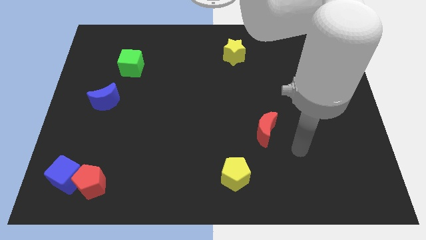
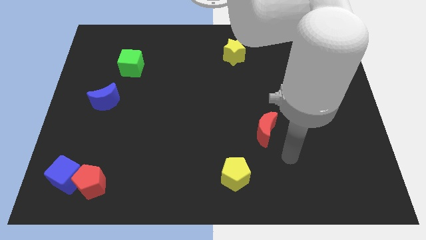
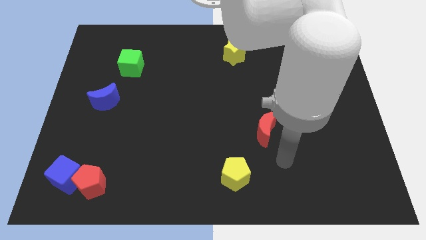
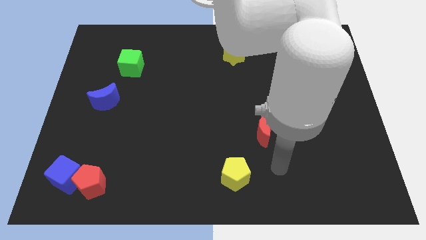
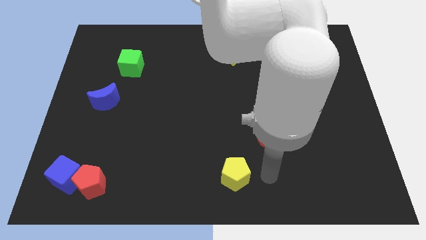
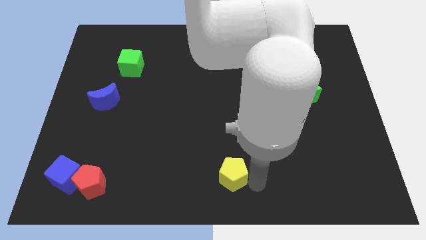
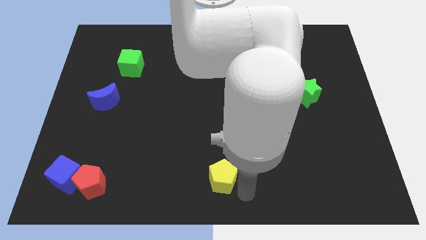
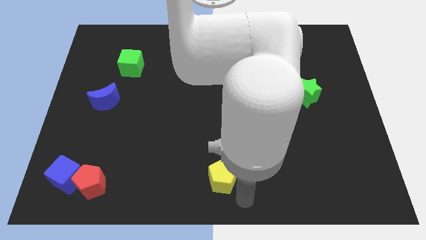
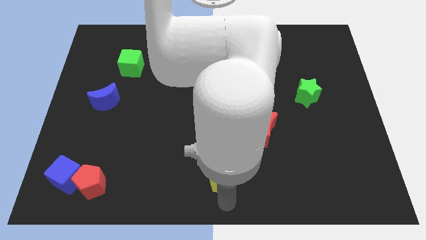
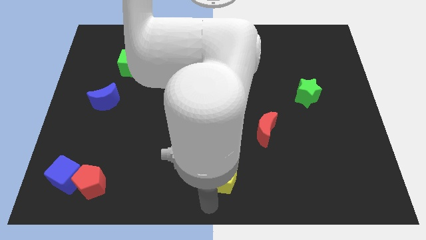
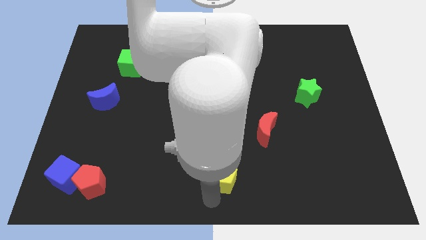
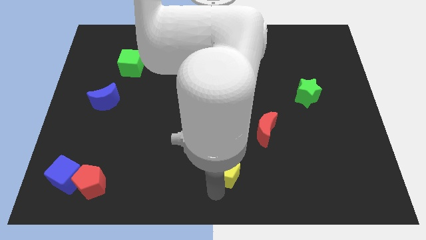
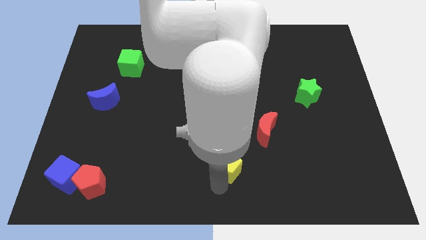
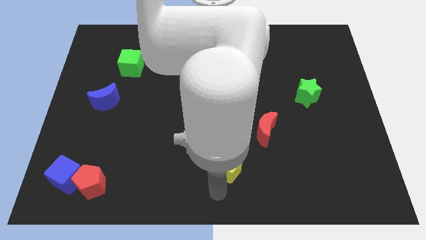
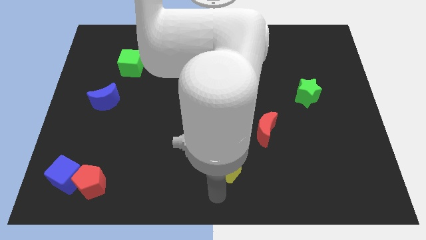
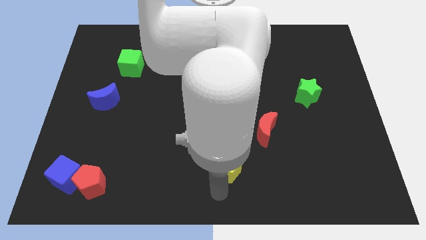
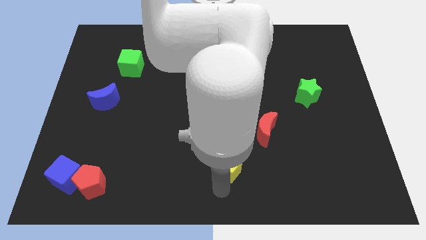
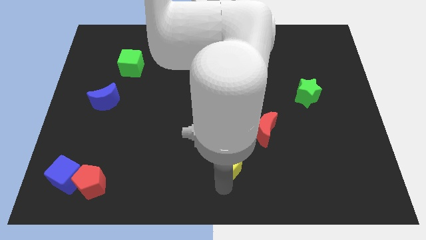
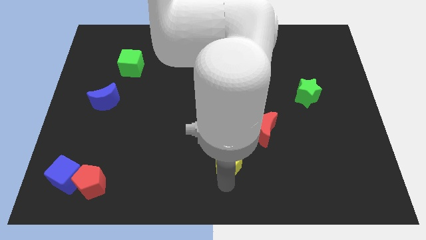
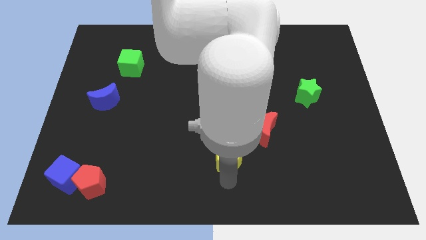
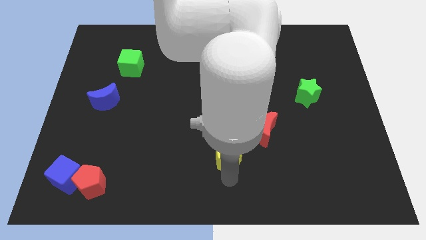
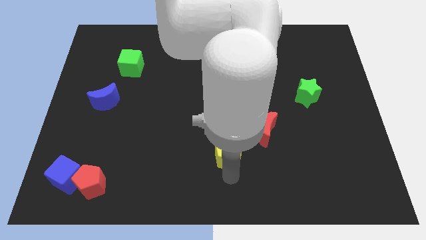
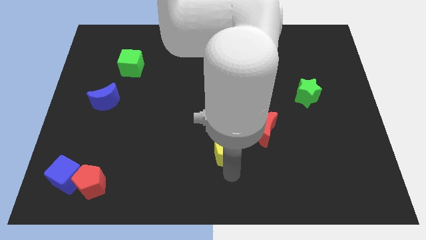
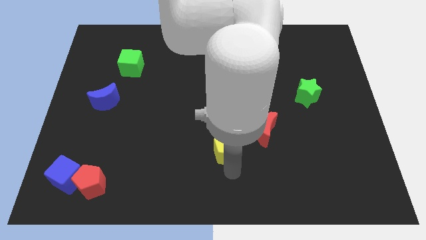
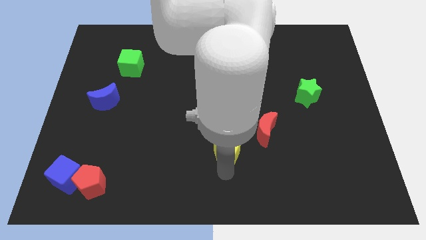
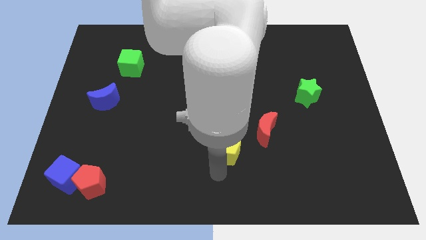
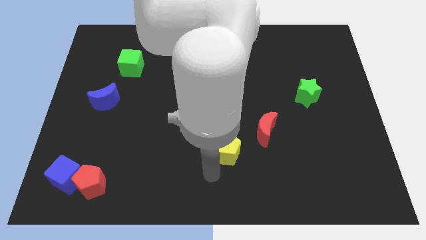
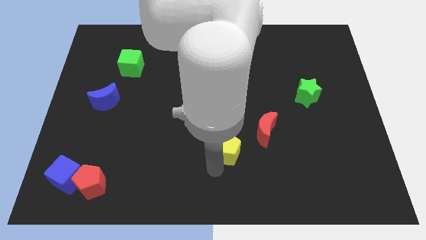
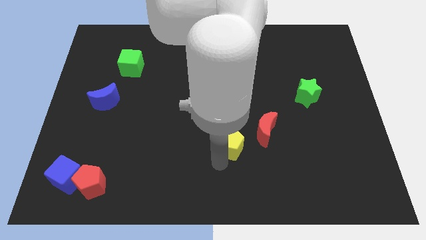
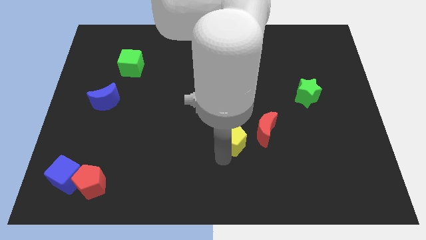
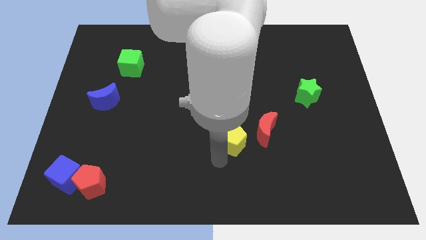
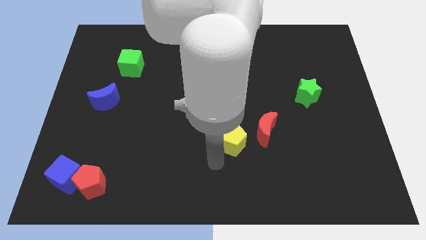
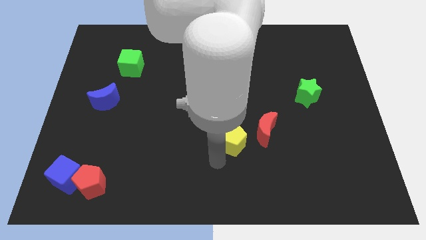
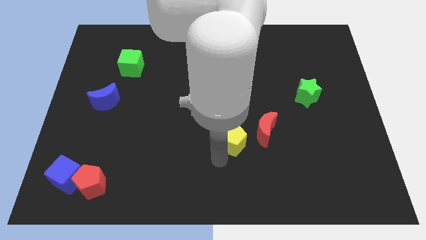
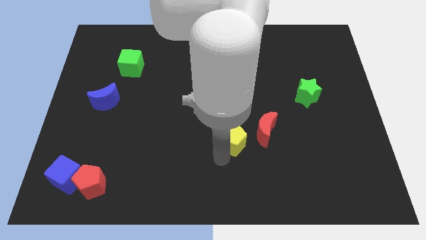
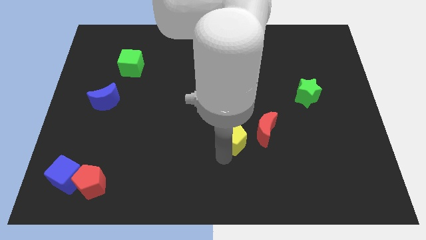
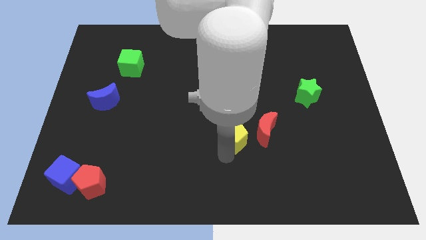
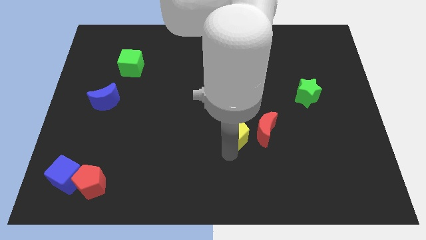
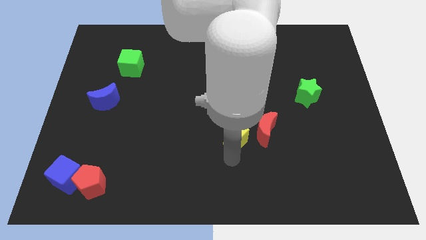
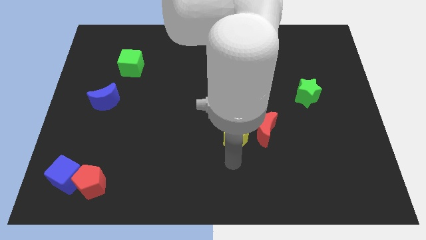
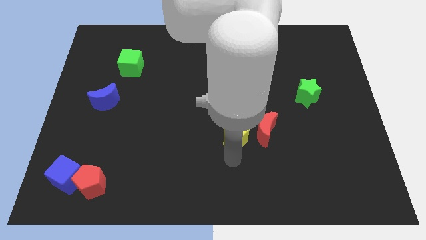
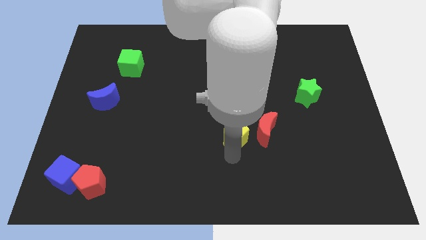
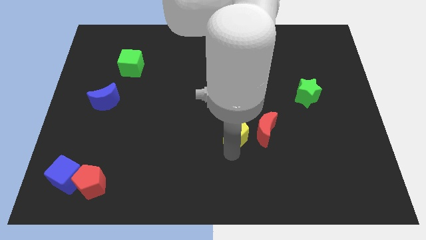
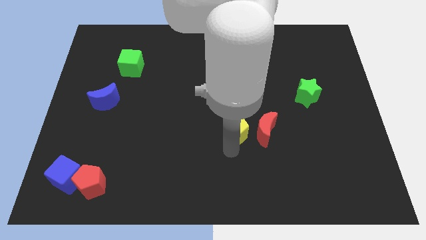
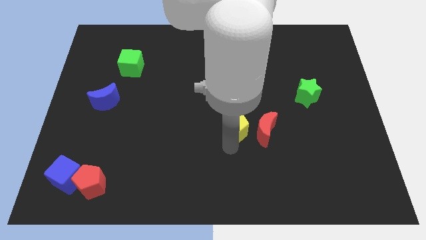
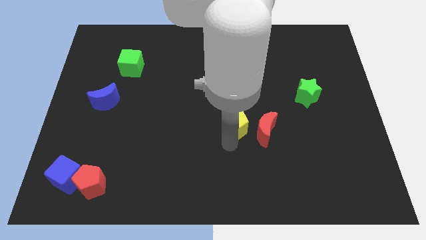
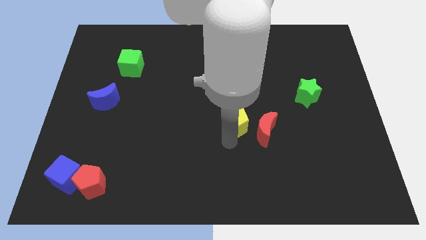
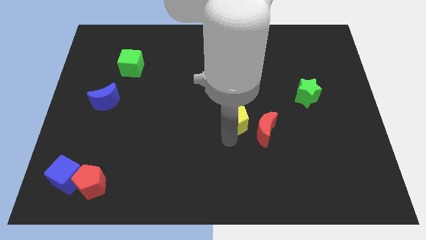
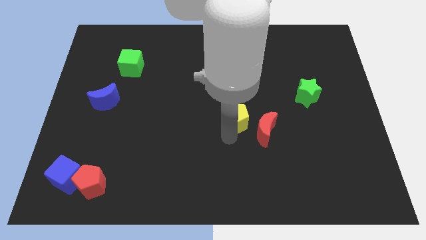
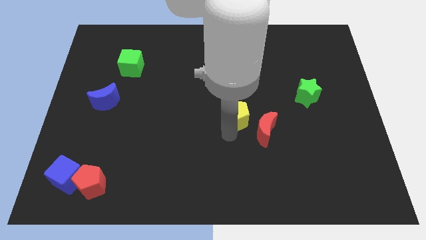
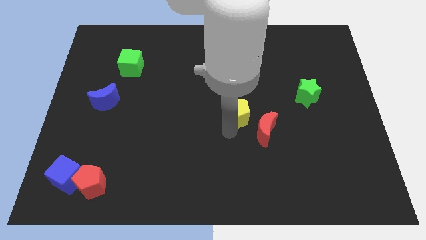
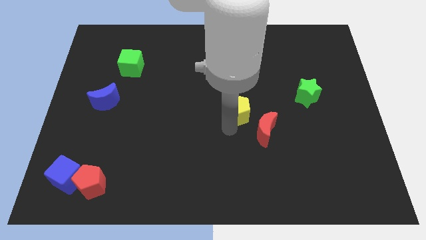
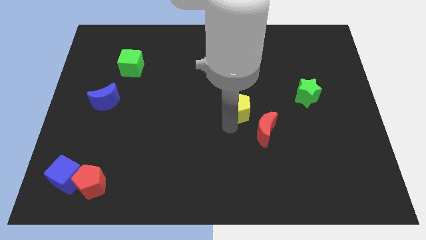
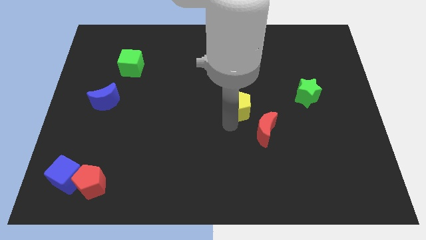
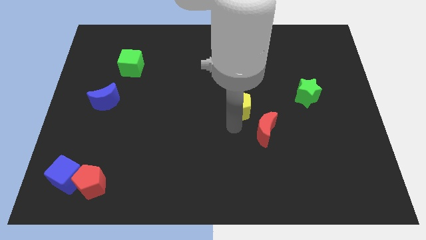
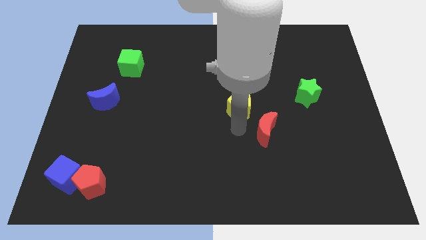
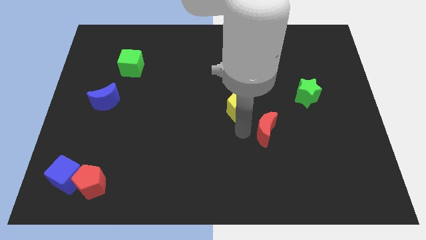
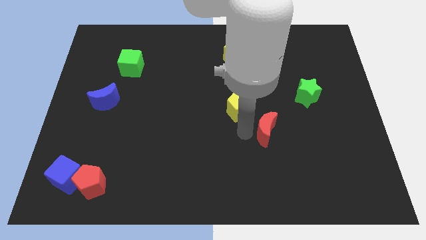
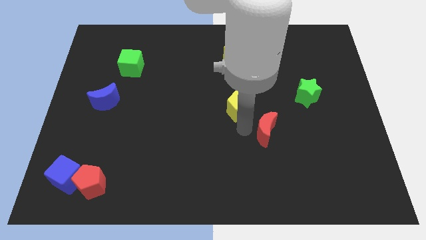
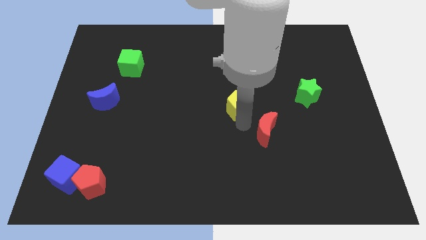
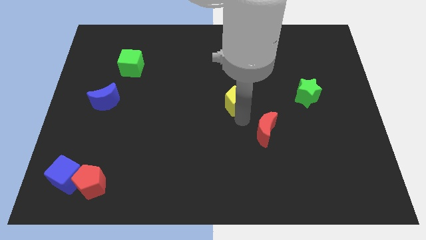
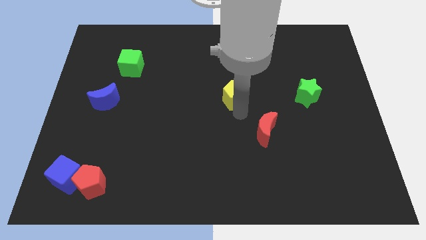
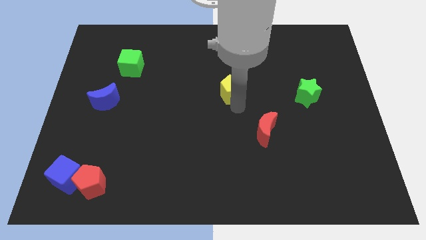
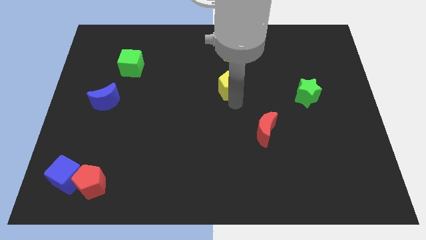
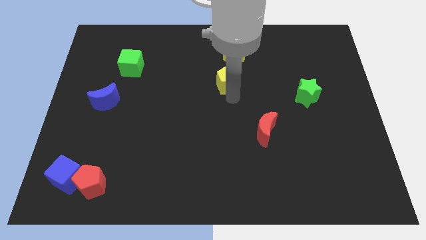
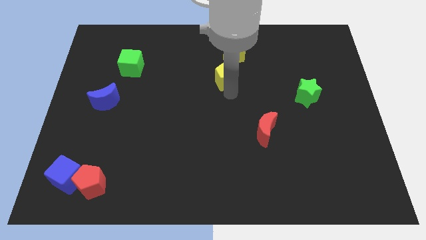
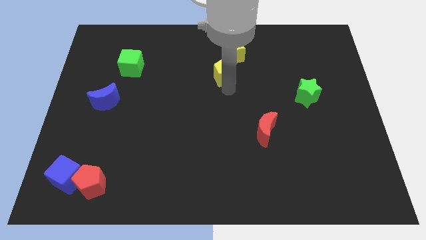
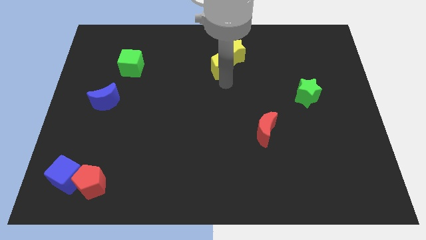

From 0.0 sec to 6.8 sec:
push the yellow pentagon towards the yellow star
